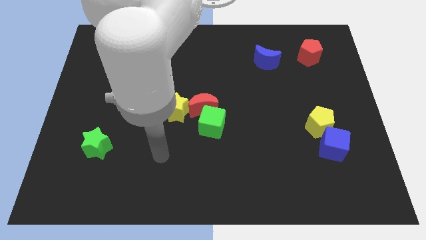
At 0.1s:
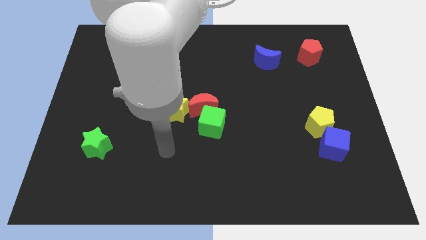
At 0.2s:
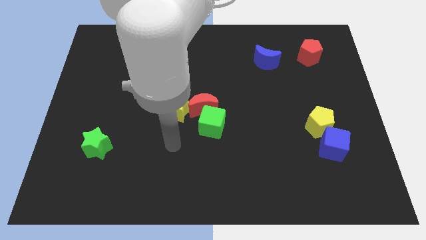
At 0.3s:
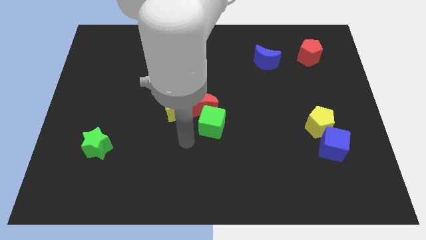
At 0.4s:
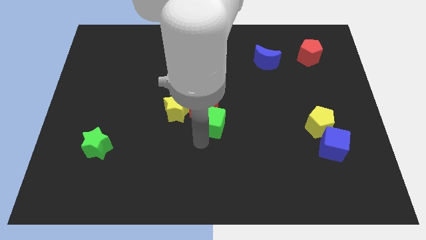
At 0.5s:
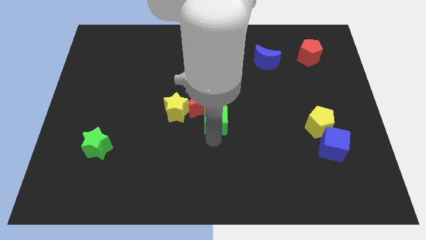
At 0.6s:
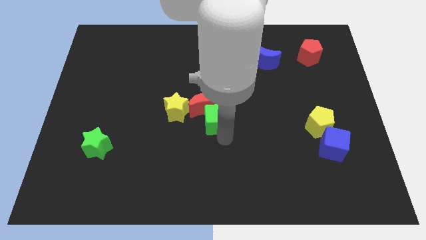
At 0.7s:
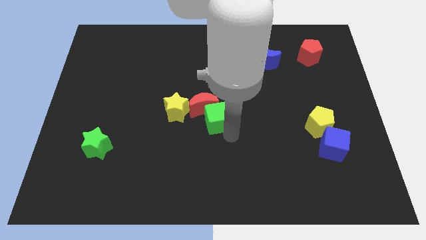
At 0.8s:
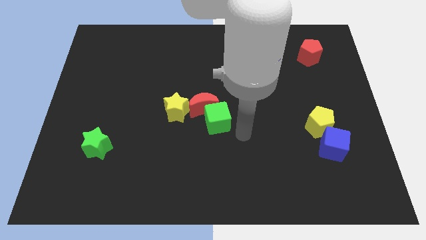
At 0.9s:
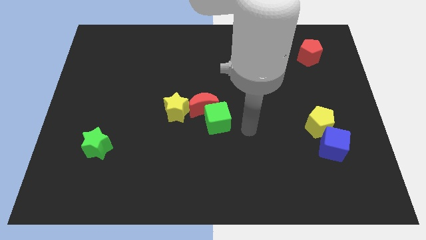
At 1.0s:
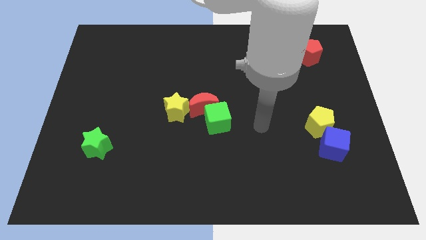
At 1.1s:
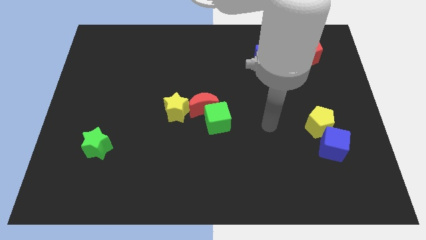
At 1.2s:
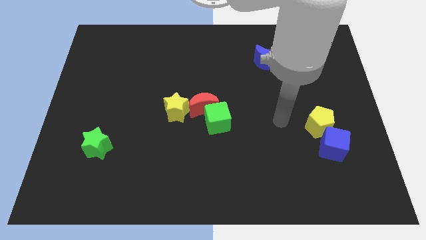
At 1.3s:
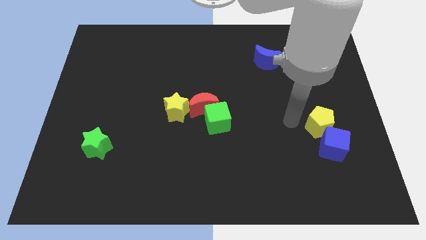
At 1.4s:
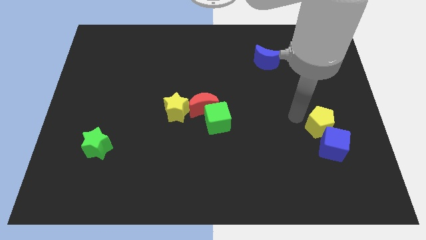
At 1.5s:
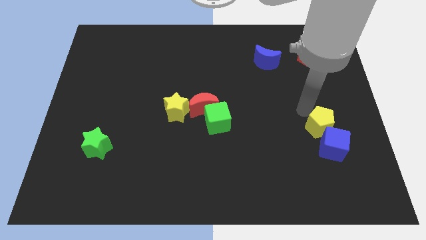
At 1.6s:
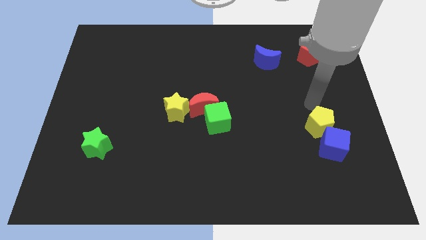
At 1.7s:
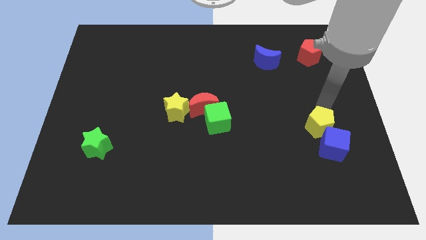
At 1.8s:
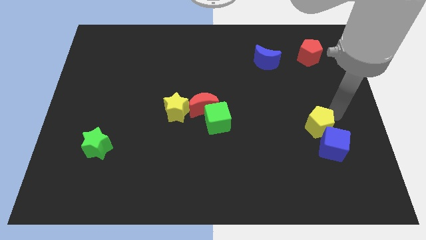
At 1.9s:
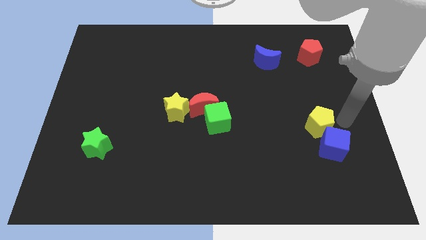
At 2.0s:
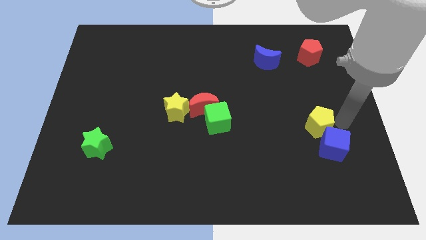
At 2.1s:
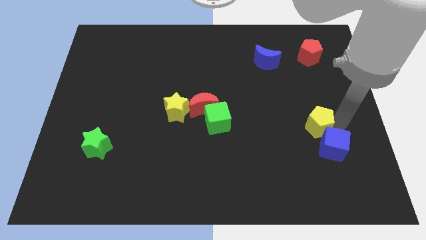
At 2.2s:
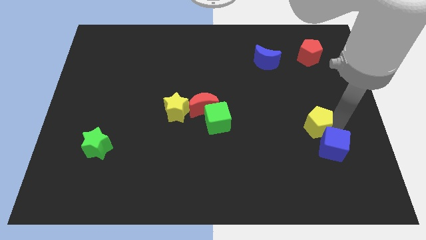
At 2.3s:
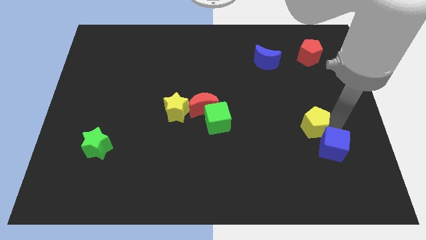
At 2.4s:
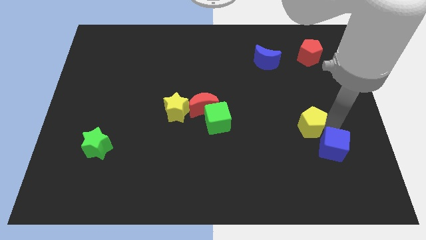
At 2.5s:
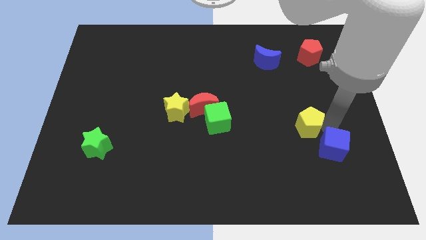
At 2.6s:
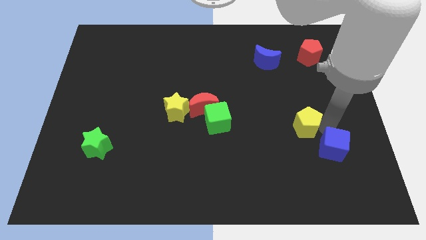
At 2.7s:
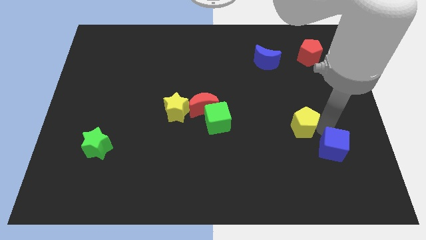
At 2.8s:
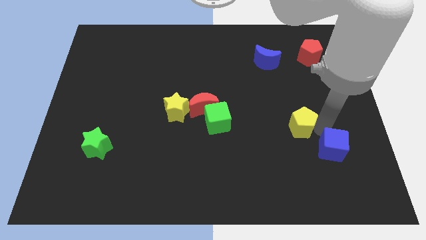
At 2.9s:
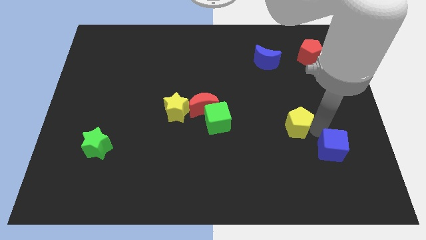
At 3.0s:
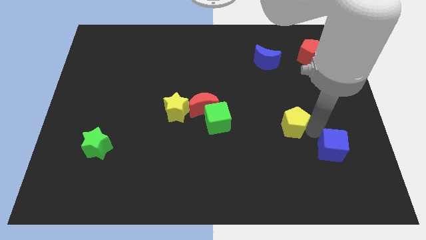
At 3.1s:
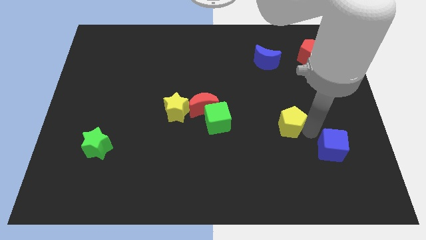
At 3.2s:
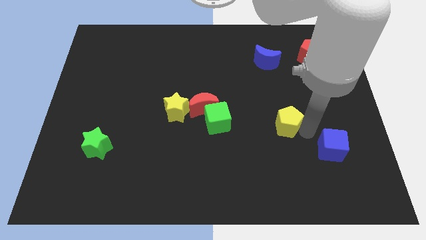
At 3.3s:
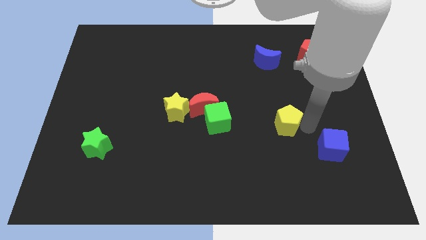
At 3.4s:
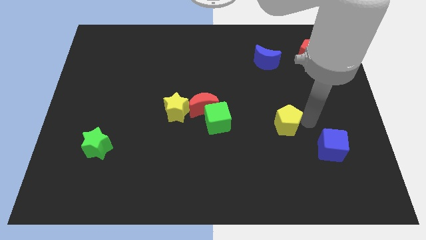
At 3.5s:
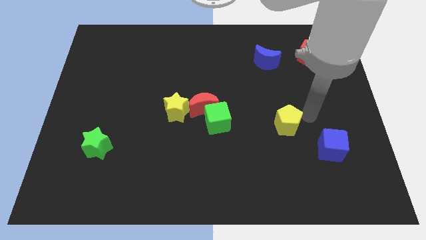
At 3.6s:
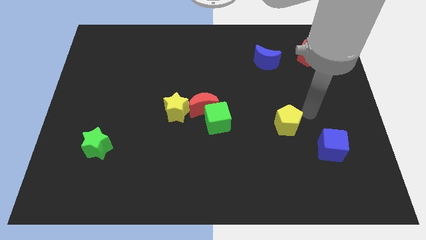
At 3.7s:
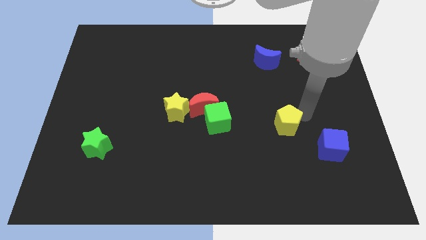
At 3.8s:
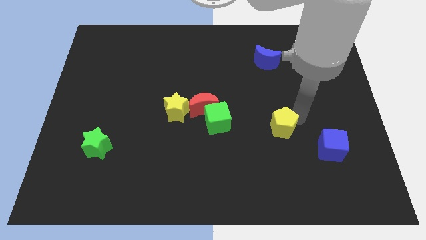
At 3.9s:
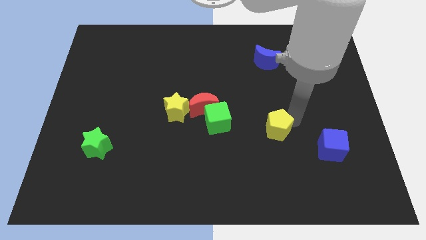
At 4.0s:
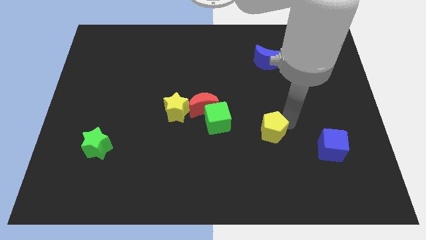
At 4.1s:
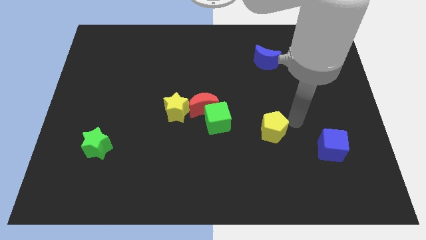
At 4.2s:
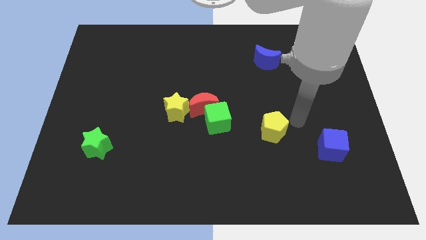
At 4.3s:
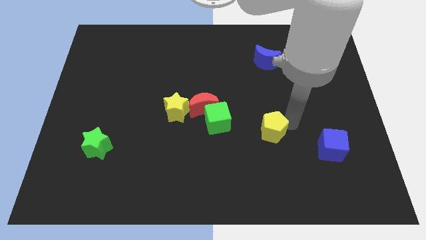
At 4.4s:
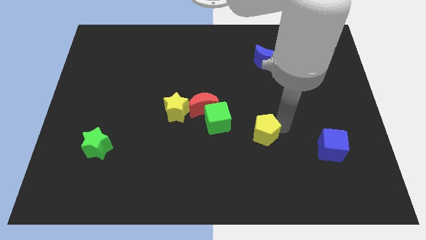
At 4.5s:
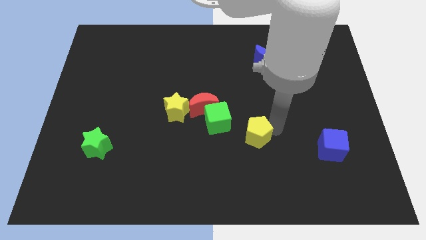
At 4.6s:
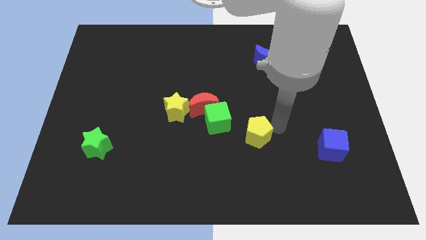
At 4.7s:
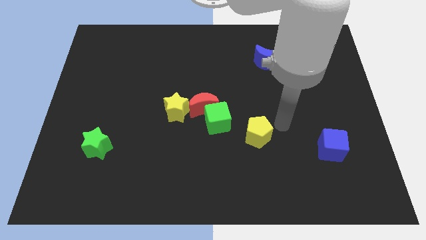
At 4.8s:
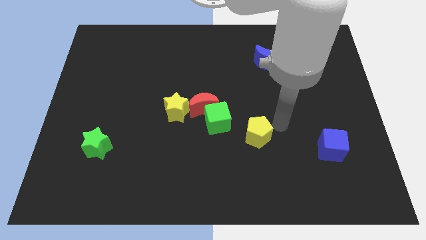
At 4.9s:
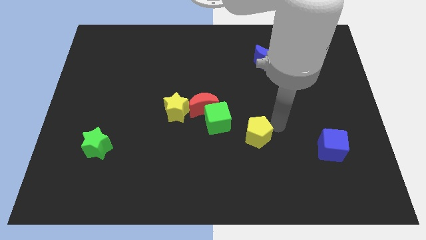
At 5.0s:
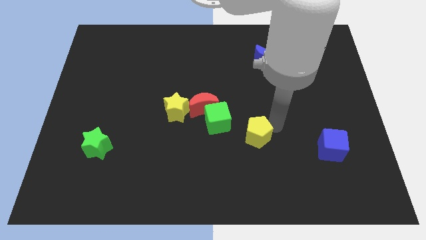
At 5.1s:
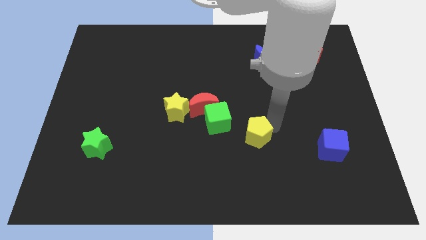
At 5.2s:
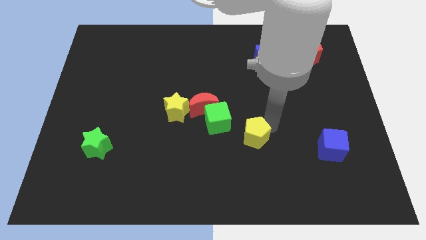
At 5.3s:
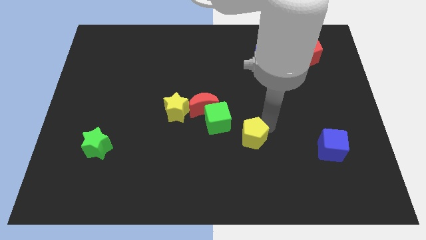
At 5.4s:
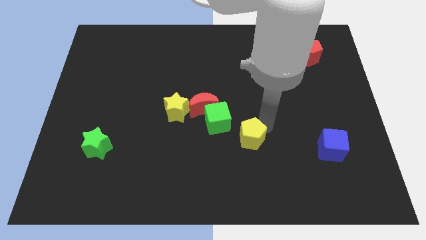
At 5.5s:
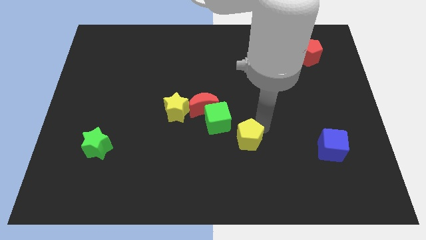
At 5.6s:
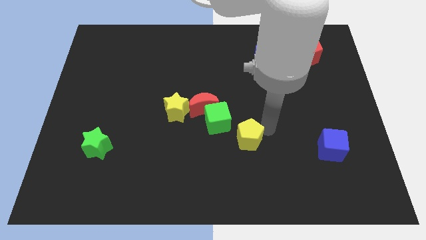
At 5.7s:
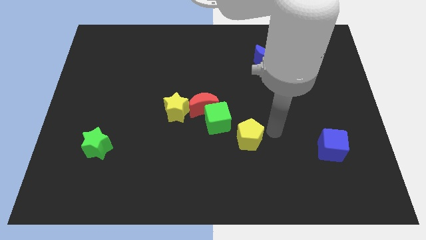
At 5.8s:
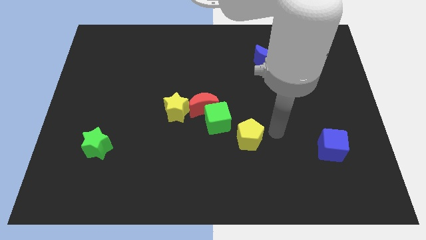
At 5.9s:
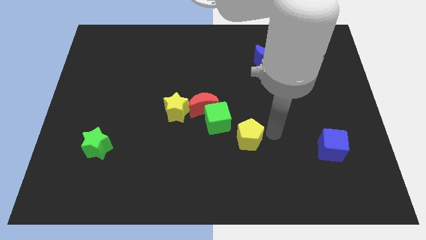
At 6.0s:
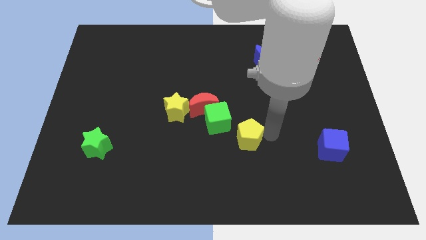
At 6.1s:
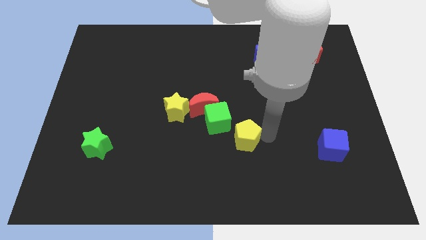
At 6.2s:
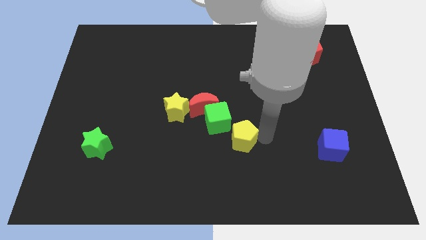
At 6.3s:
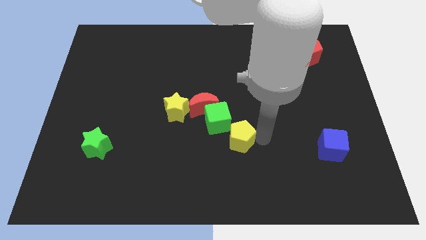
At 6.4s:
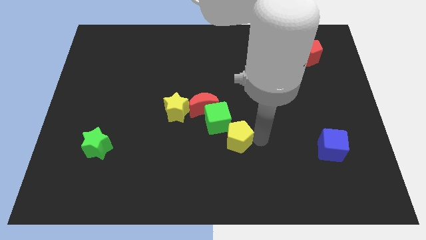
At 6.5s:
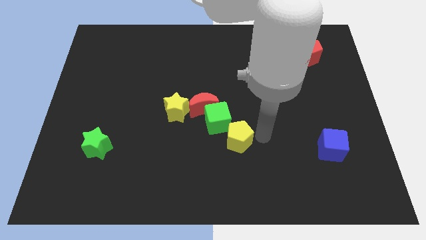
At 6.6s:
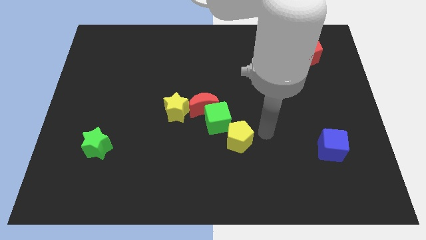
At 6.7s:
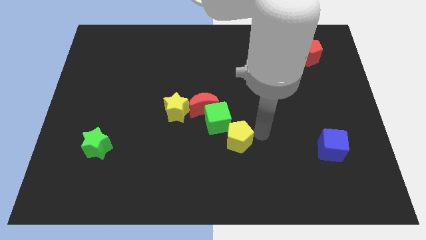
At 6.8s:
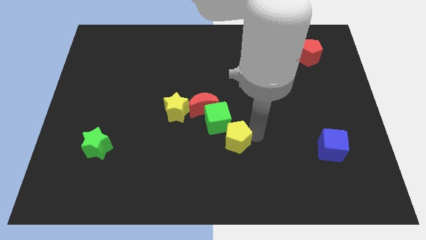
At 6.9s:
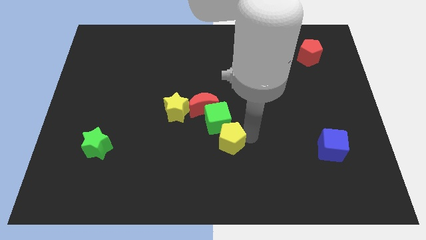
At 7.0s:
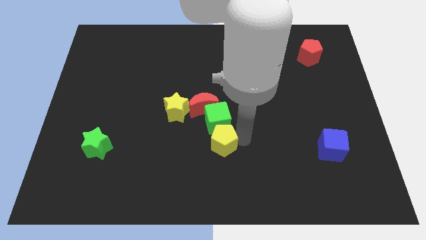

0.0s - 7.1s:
move the yellow pentagon to the left

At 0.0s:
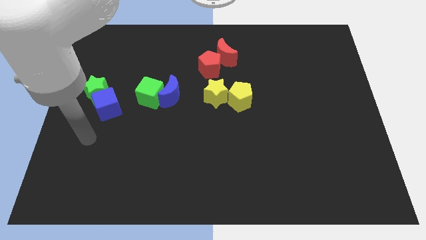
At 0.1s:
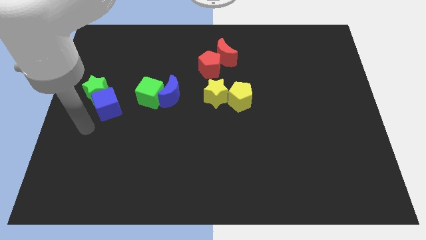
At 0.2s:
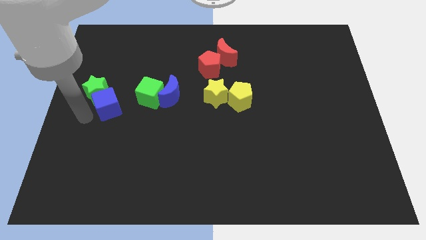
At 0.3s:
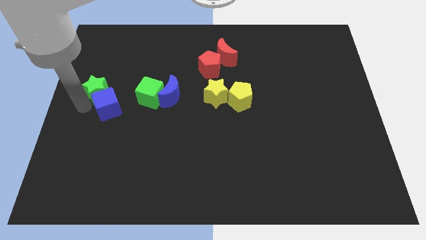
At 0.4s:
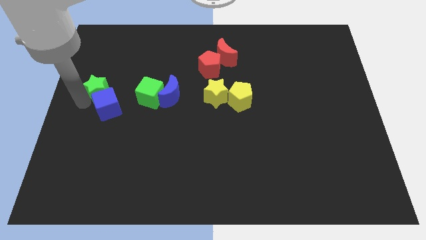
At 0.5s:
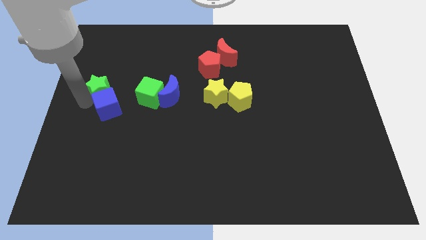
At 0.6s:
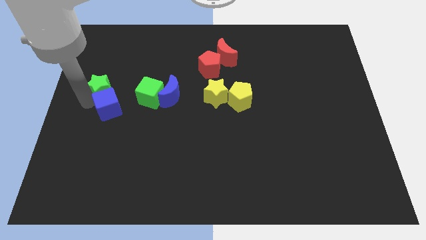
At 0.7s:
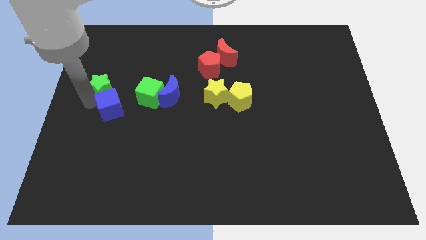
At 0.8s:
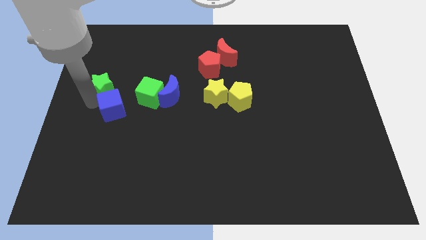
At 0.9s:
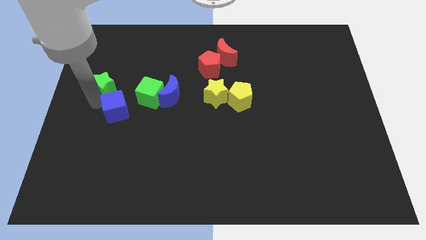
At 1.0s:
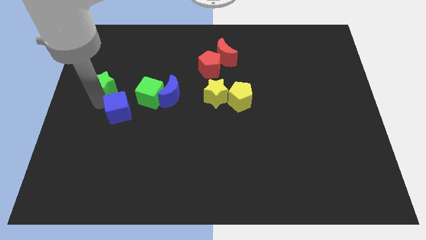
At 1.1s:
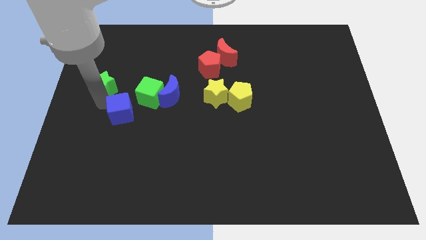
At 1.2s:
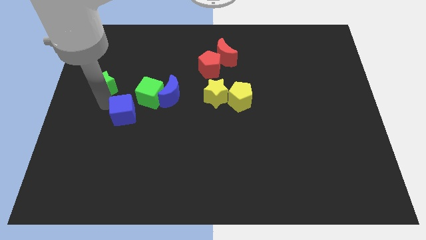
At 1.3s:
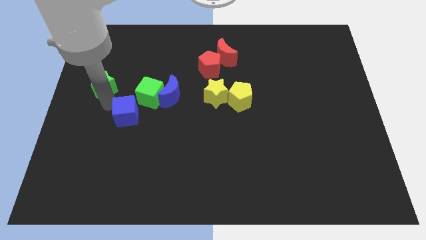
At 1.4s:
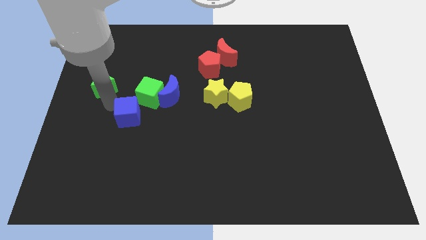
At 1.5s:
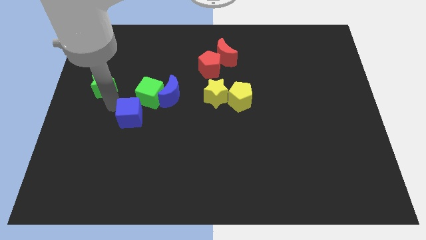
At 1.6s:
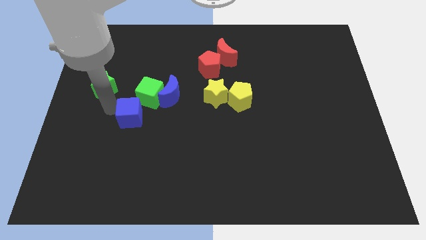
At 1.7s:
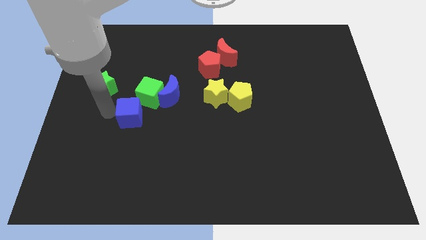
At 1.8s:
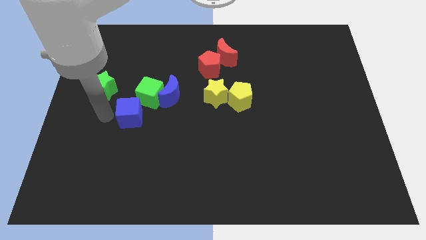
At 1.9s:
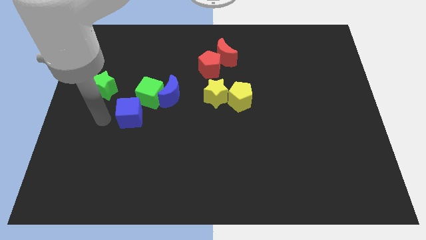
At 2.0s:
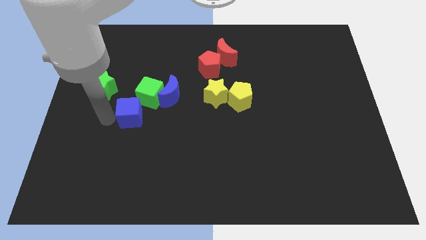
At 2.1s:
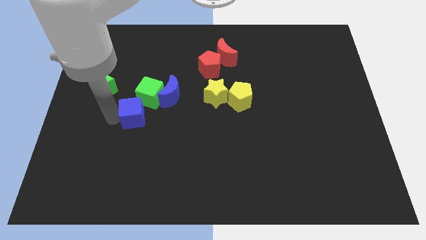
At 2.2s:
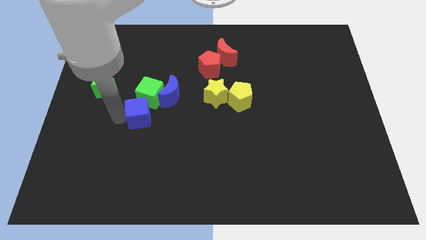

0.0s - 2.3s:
push the blue cube a bit right
